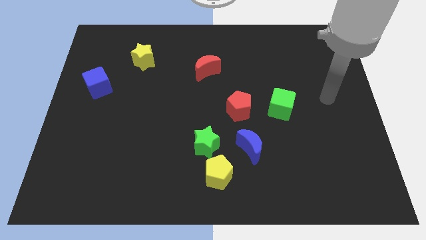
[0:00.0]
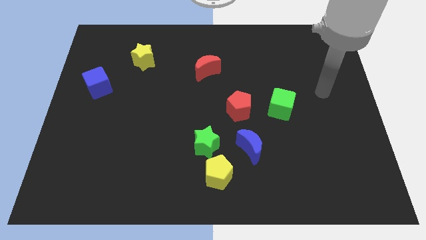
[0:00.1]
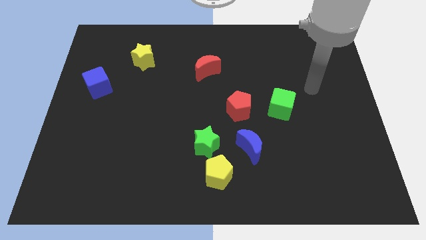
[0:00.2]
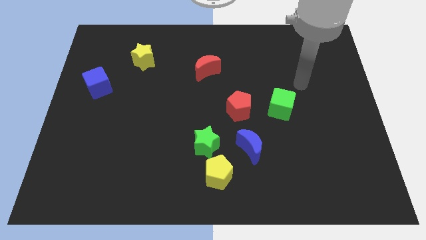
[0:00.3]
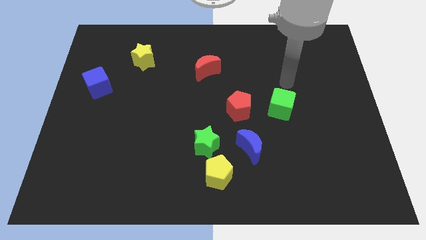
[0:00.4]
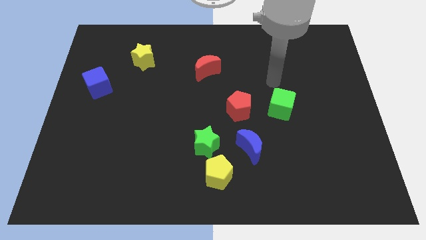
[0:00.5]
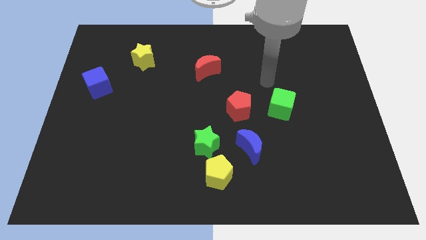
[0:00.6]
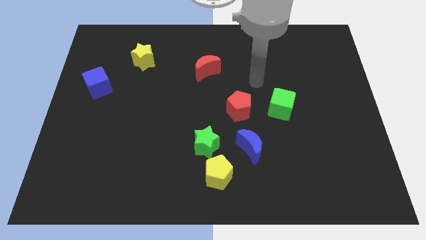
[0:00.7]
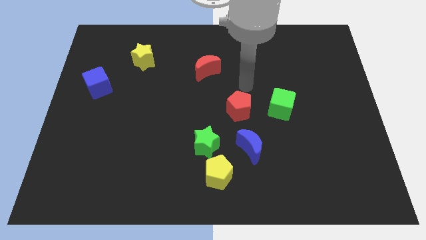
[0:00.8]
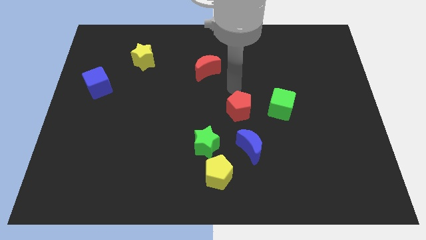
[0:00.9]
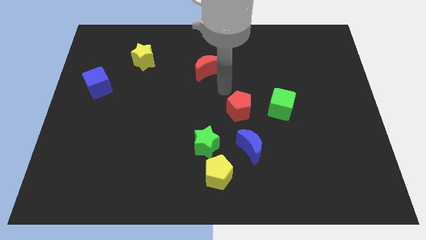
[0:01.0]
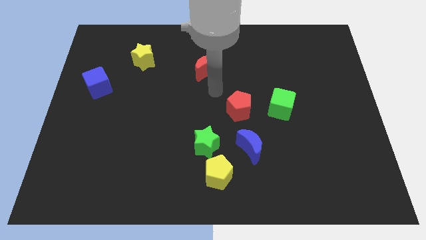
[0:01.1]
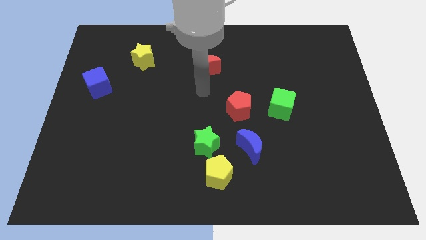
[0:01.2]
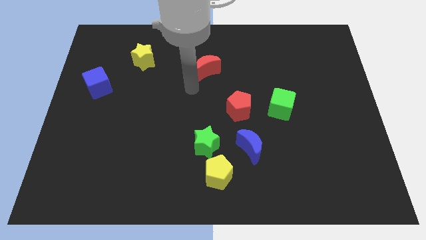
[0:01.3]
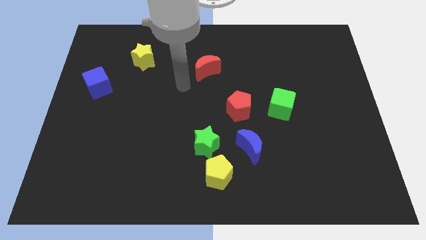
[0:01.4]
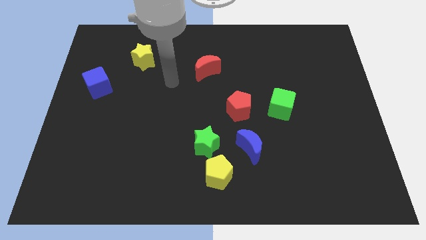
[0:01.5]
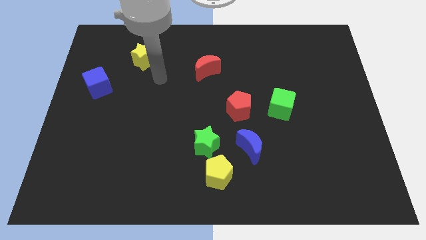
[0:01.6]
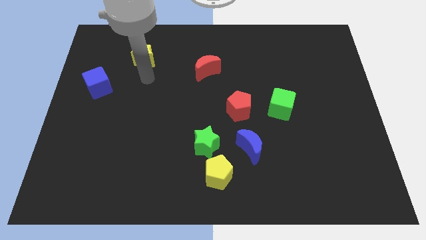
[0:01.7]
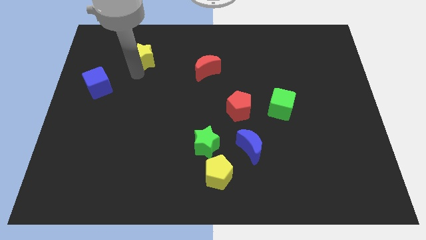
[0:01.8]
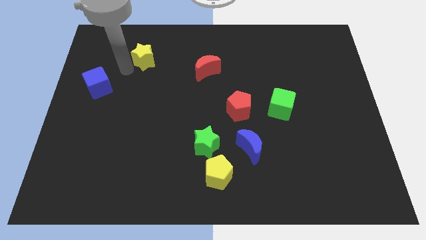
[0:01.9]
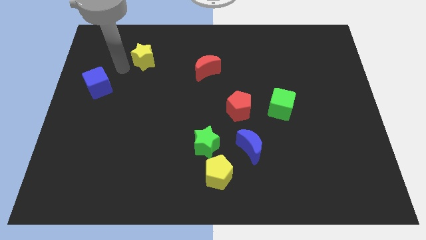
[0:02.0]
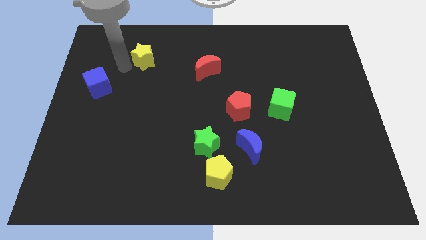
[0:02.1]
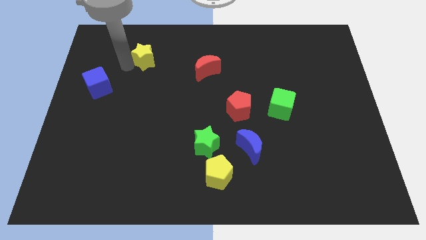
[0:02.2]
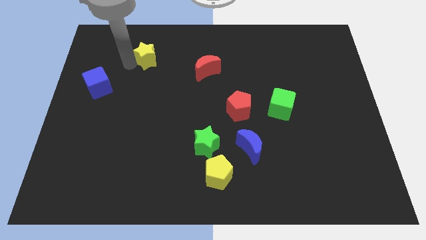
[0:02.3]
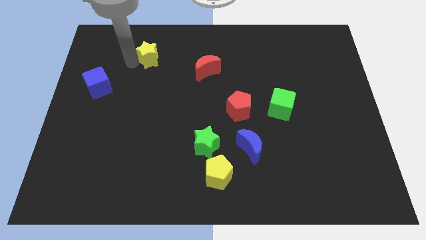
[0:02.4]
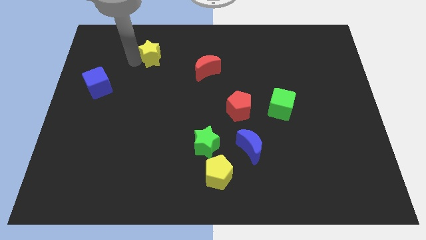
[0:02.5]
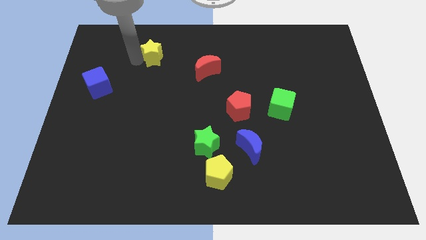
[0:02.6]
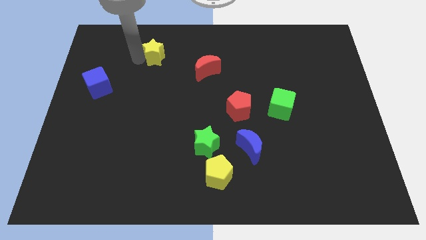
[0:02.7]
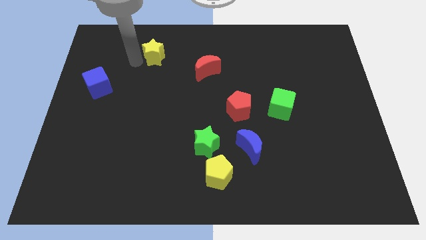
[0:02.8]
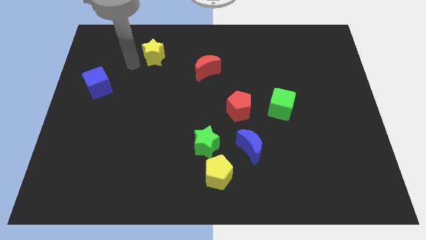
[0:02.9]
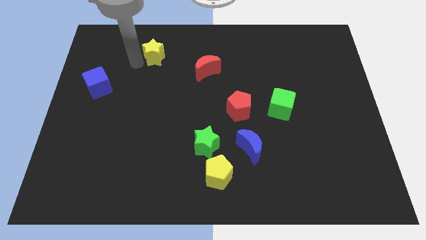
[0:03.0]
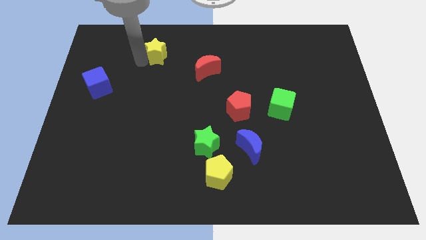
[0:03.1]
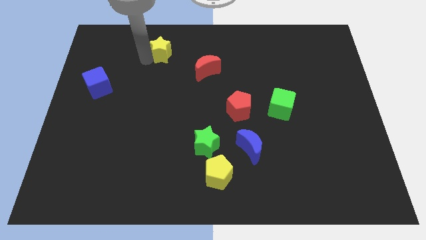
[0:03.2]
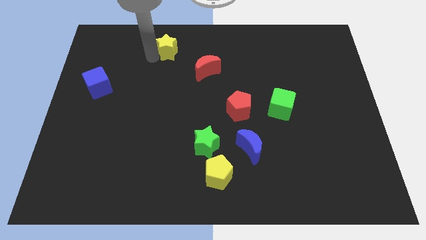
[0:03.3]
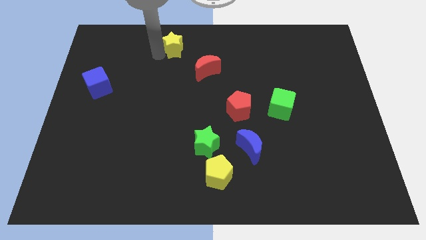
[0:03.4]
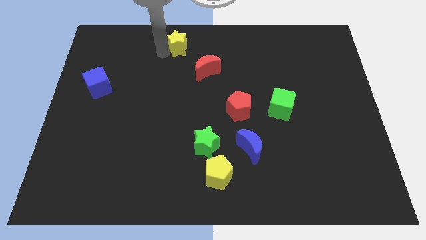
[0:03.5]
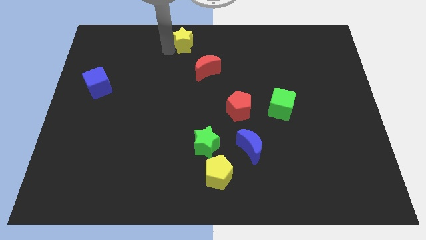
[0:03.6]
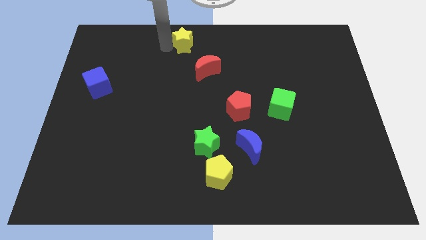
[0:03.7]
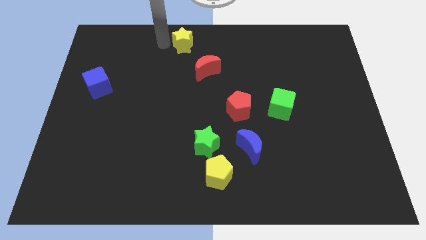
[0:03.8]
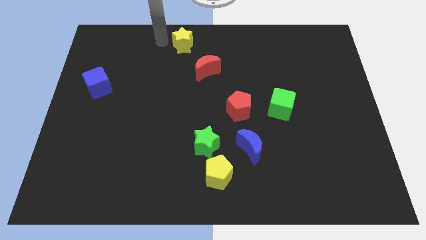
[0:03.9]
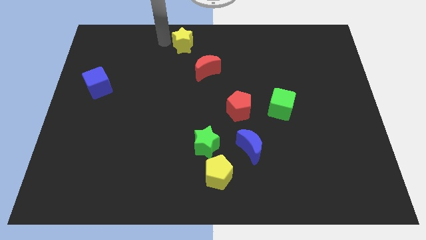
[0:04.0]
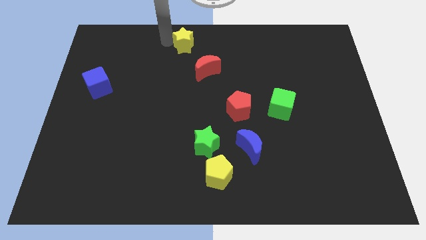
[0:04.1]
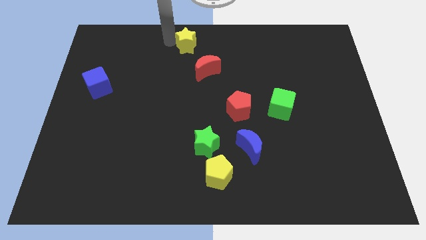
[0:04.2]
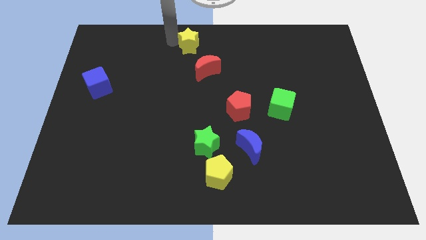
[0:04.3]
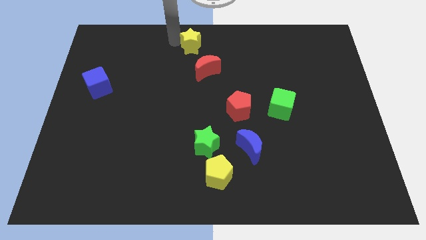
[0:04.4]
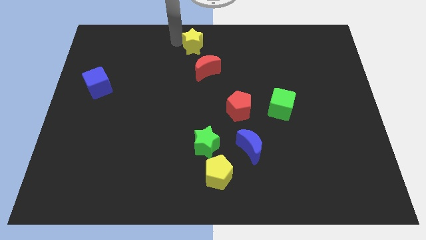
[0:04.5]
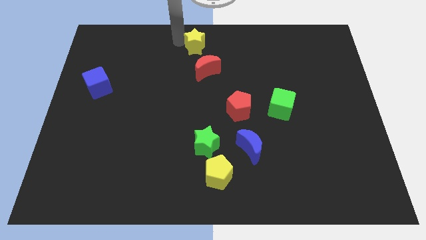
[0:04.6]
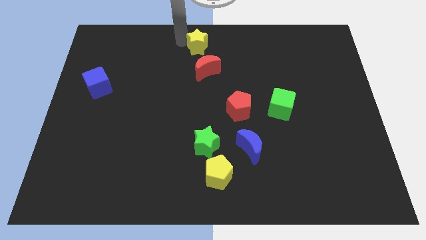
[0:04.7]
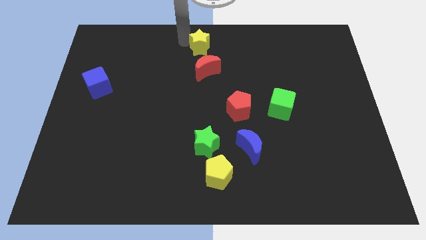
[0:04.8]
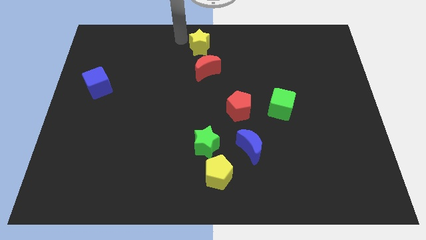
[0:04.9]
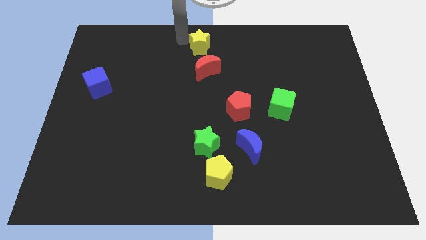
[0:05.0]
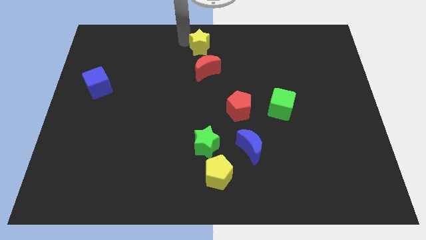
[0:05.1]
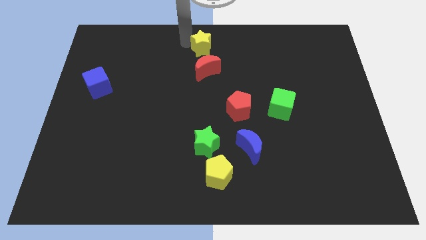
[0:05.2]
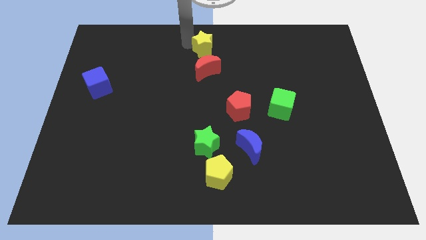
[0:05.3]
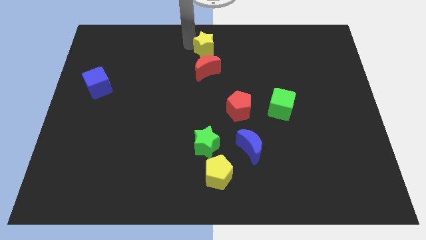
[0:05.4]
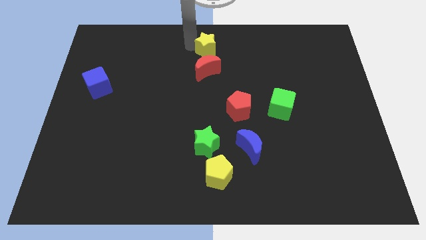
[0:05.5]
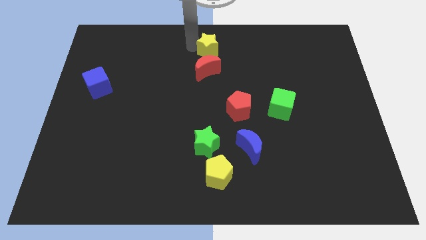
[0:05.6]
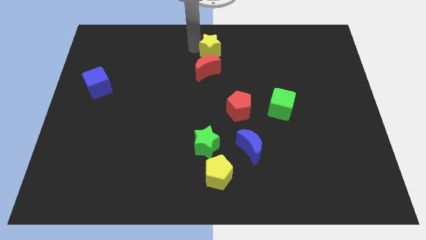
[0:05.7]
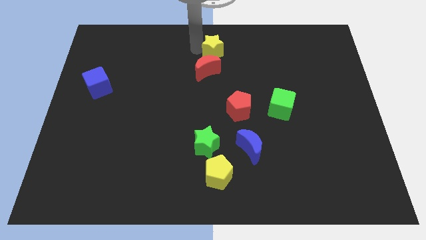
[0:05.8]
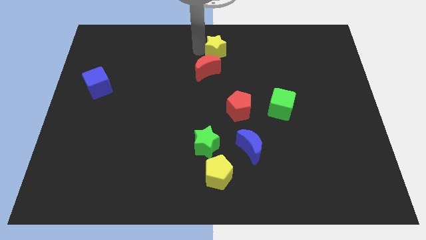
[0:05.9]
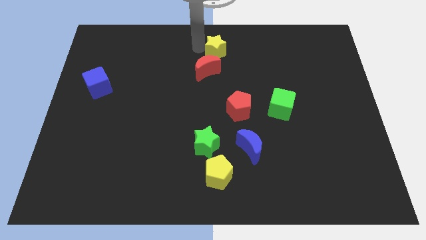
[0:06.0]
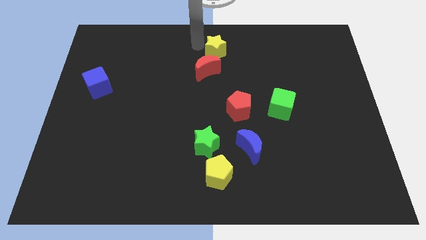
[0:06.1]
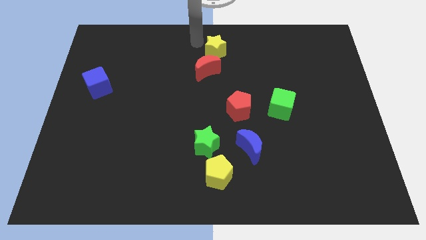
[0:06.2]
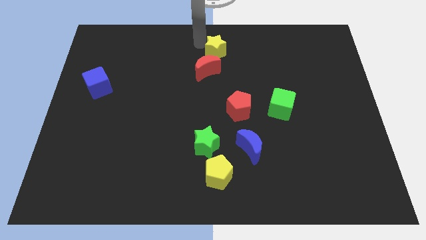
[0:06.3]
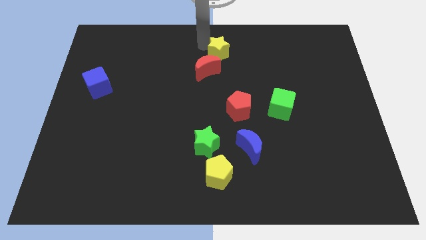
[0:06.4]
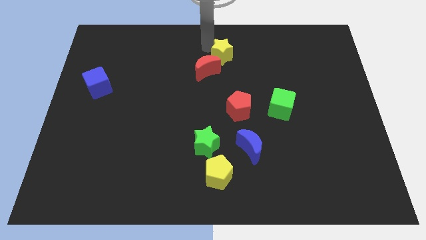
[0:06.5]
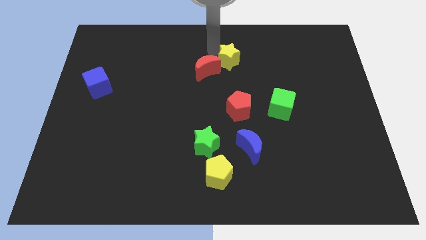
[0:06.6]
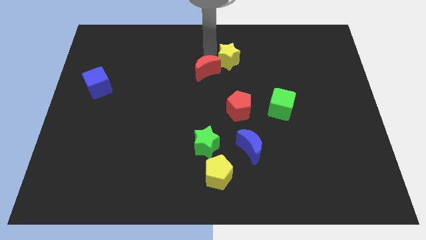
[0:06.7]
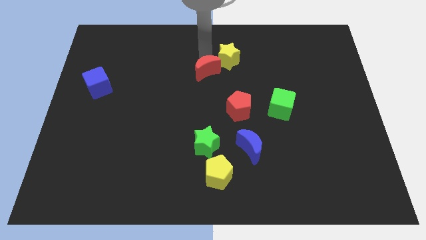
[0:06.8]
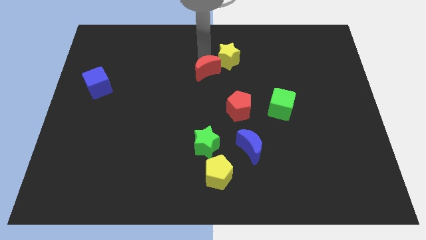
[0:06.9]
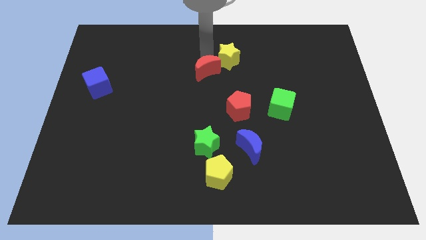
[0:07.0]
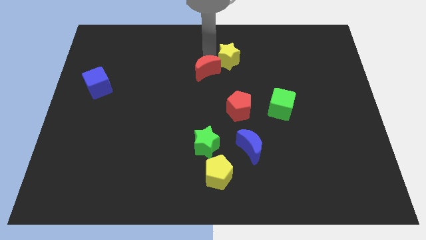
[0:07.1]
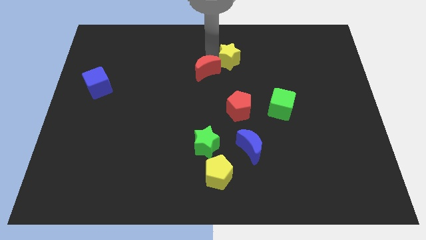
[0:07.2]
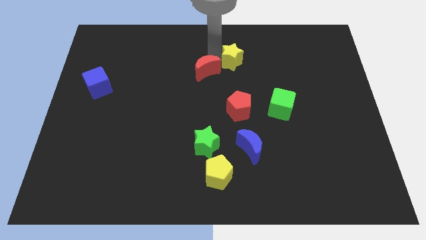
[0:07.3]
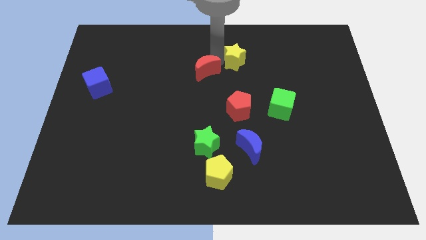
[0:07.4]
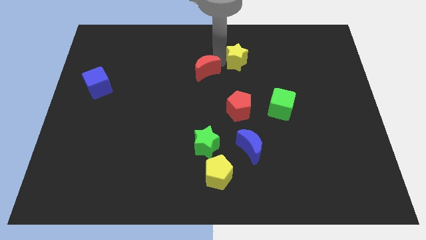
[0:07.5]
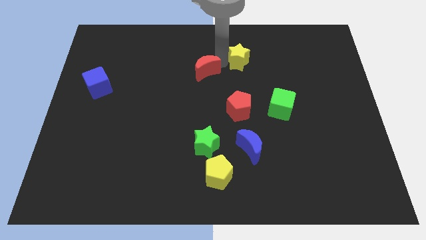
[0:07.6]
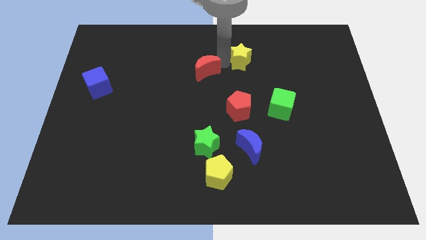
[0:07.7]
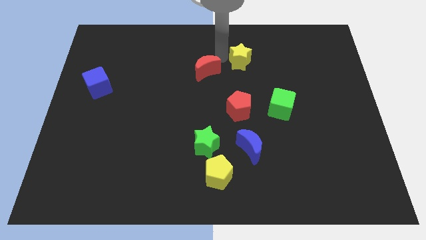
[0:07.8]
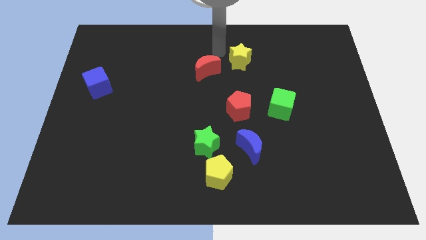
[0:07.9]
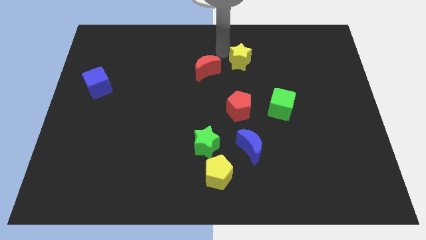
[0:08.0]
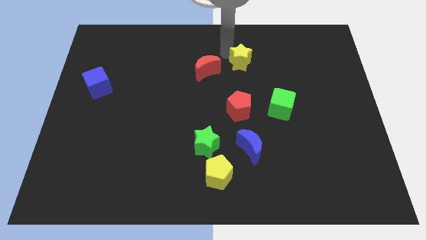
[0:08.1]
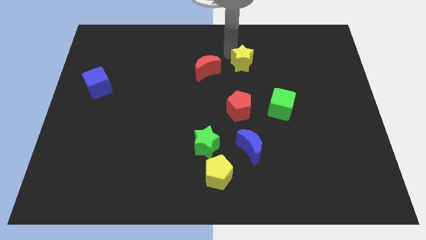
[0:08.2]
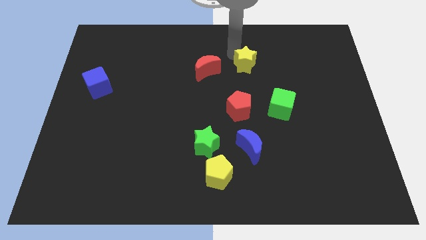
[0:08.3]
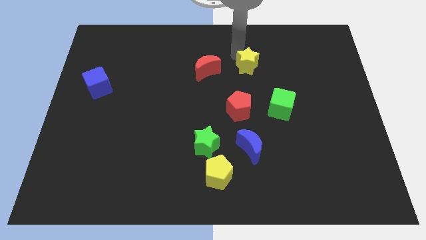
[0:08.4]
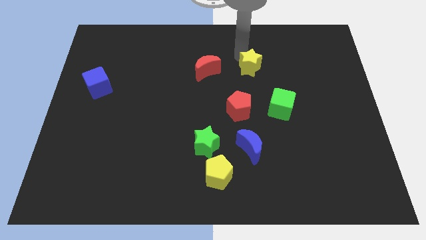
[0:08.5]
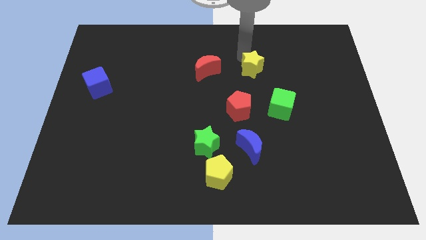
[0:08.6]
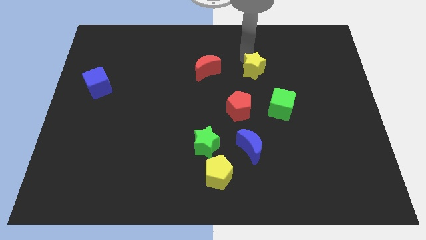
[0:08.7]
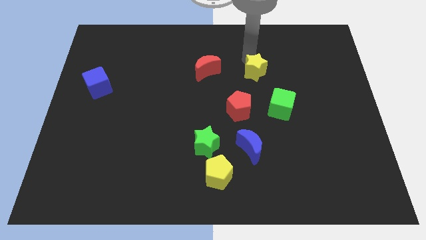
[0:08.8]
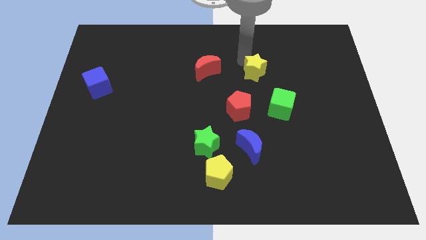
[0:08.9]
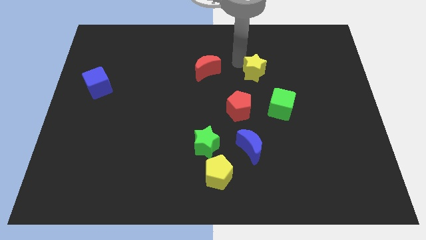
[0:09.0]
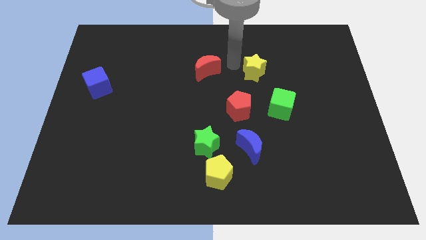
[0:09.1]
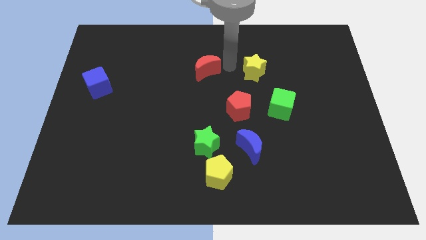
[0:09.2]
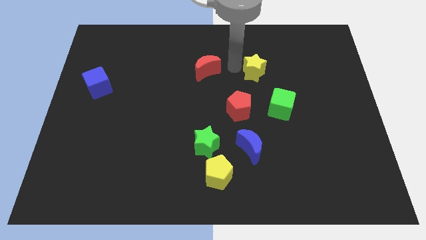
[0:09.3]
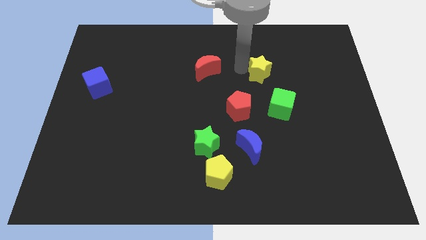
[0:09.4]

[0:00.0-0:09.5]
push the yellow star to the top of the green cube
